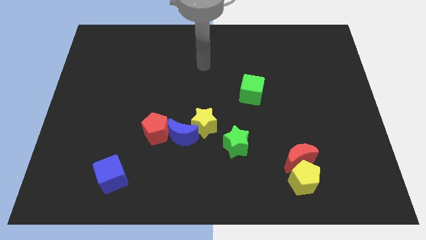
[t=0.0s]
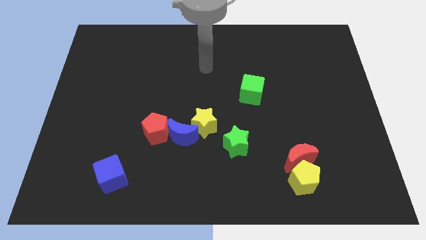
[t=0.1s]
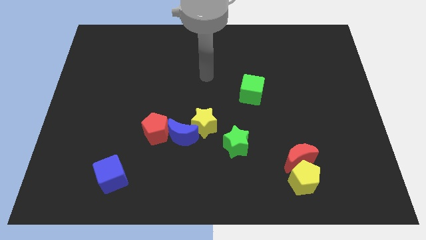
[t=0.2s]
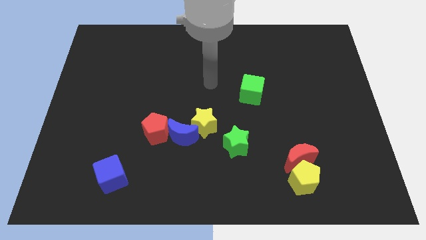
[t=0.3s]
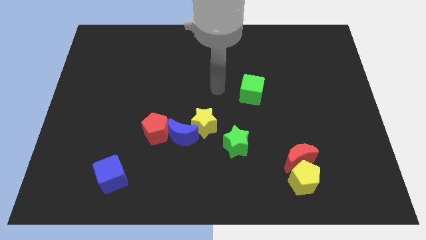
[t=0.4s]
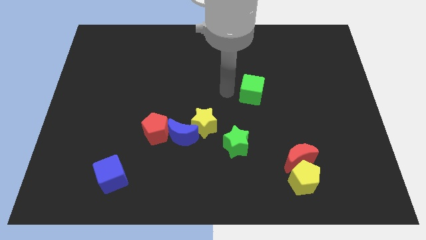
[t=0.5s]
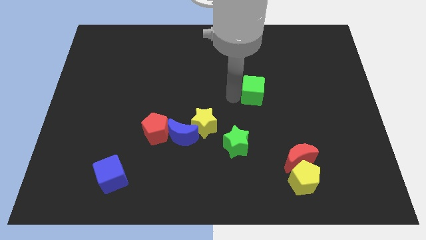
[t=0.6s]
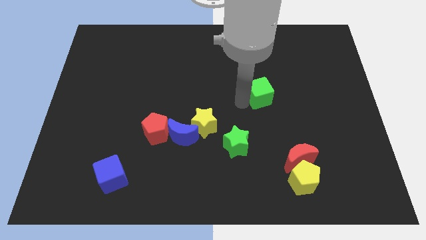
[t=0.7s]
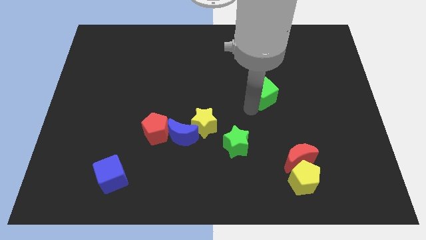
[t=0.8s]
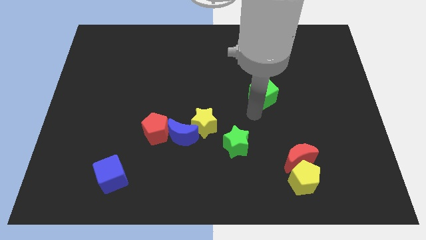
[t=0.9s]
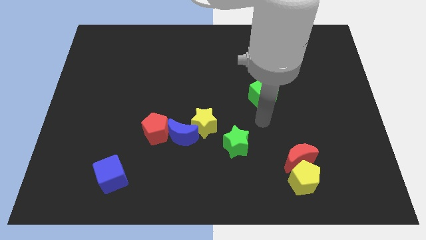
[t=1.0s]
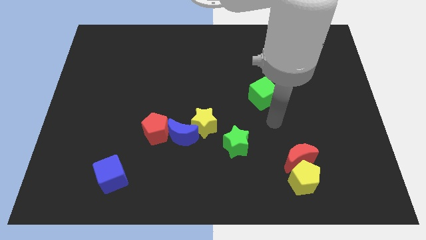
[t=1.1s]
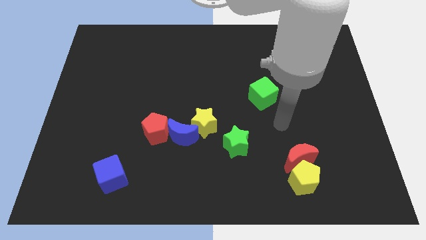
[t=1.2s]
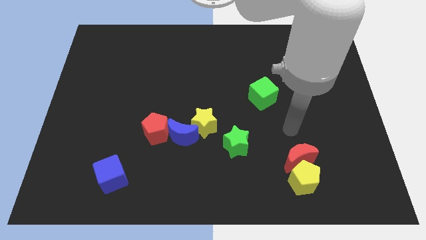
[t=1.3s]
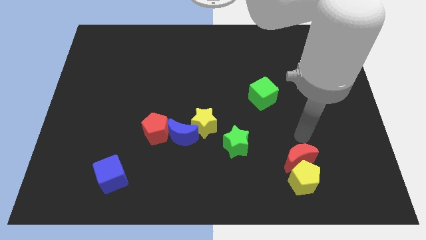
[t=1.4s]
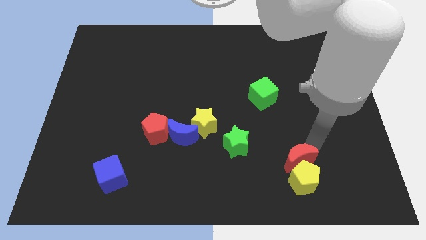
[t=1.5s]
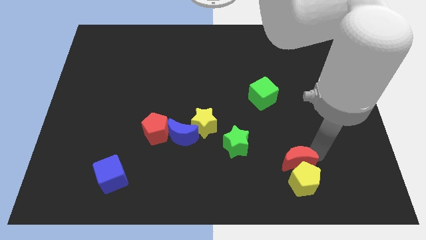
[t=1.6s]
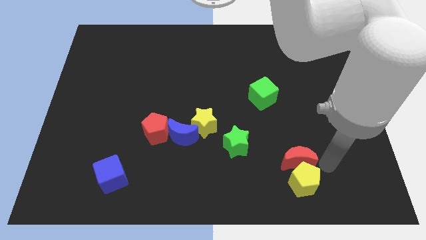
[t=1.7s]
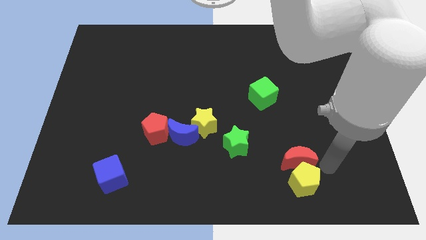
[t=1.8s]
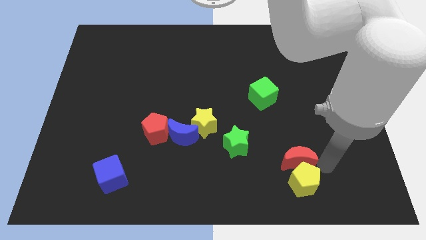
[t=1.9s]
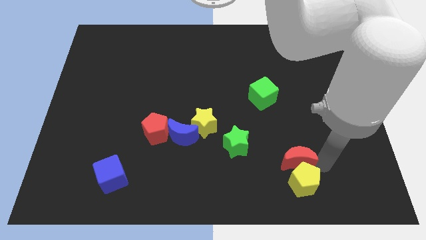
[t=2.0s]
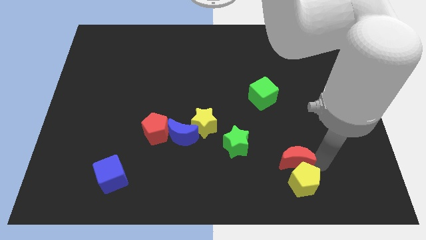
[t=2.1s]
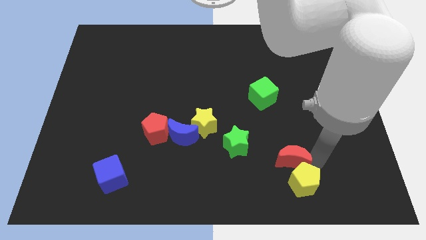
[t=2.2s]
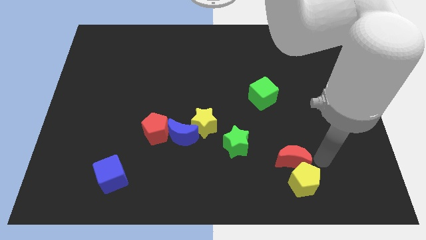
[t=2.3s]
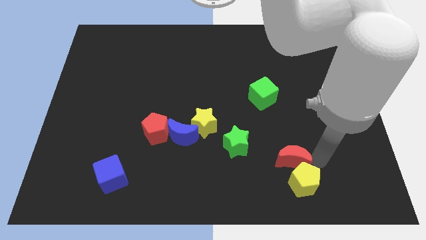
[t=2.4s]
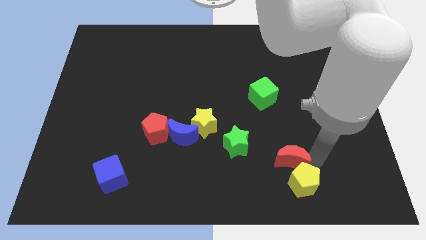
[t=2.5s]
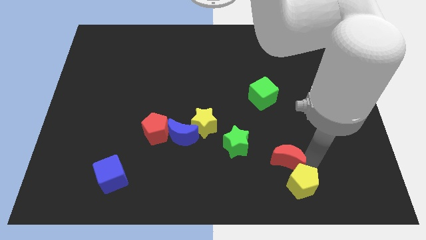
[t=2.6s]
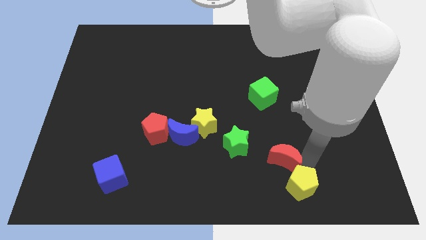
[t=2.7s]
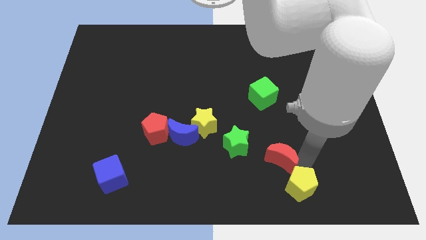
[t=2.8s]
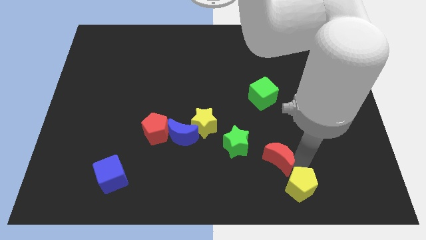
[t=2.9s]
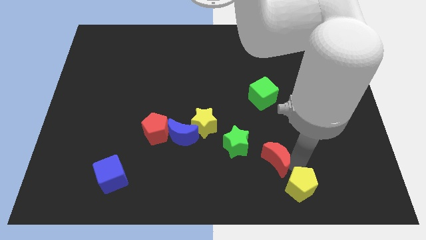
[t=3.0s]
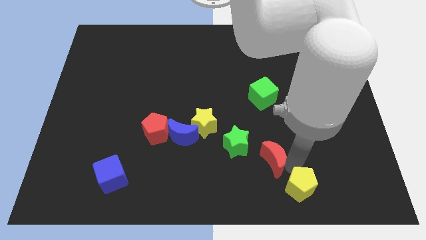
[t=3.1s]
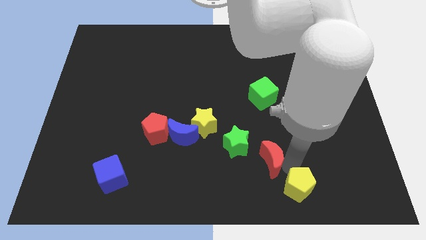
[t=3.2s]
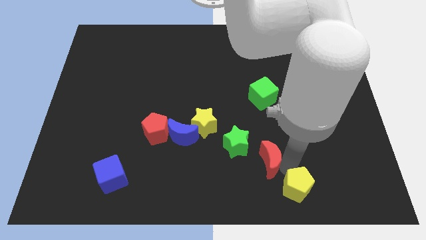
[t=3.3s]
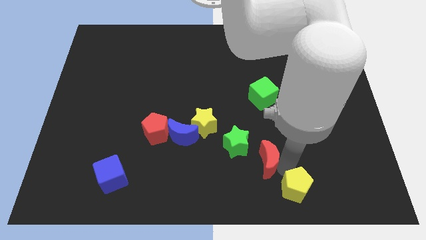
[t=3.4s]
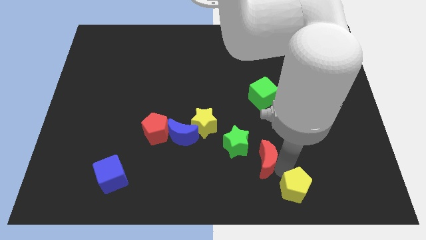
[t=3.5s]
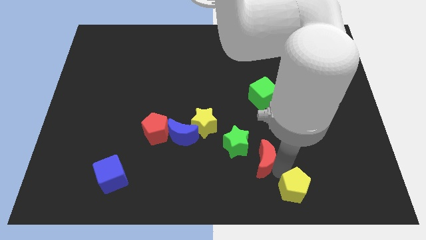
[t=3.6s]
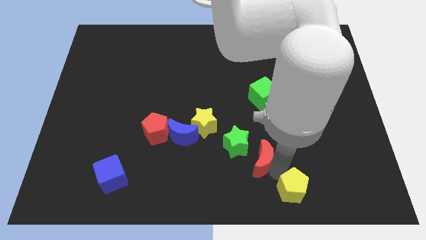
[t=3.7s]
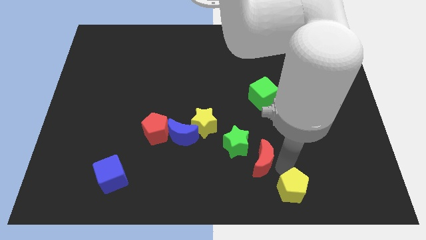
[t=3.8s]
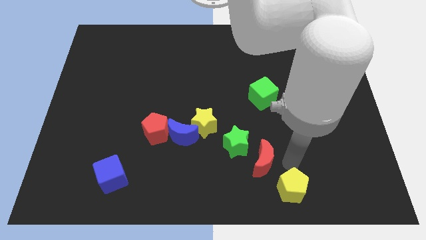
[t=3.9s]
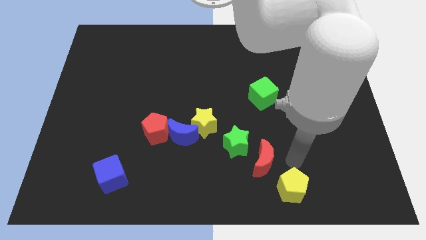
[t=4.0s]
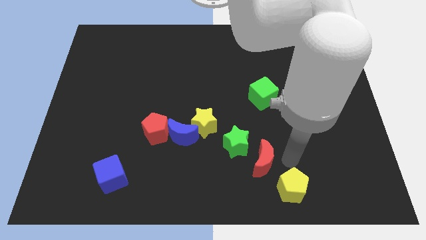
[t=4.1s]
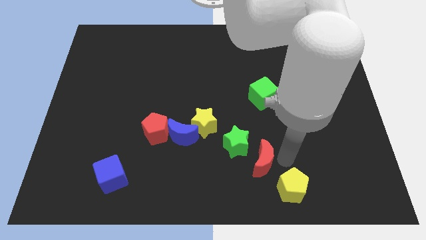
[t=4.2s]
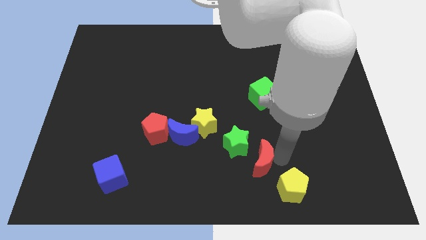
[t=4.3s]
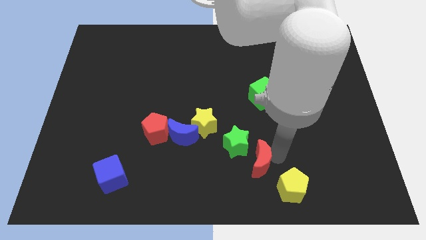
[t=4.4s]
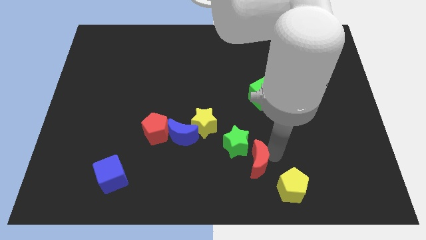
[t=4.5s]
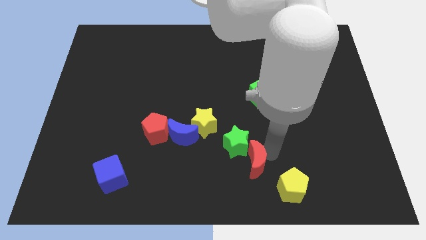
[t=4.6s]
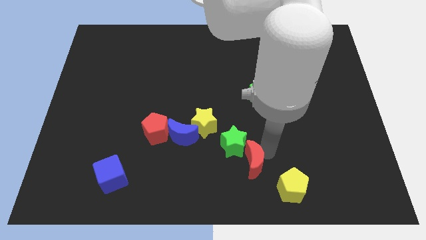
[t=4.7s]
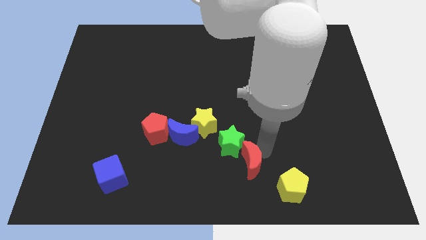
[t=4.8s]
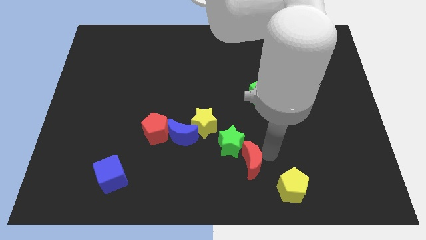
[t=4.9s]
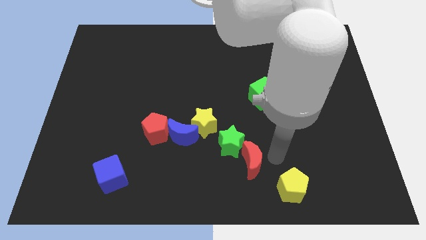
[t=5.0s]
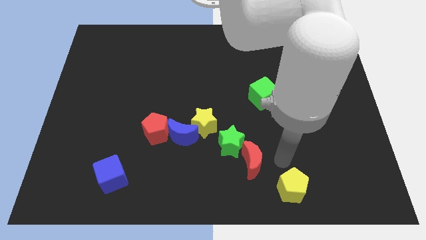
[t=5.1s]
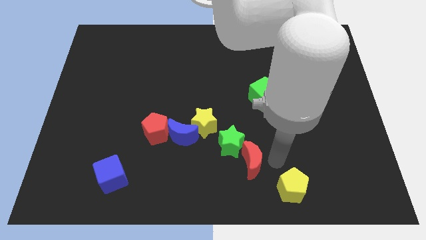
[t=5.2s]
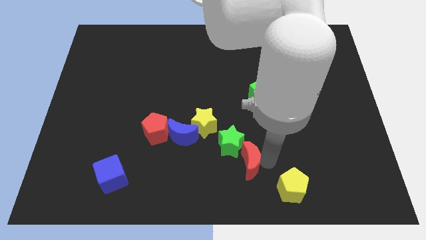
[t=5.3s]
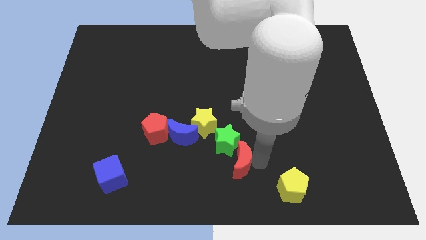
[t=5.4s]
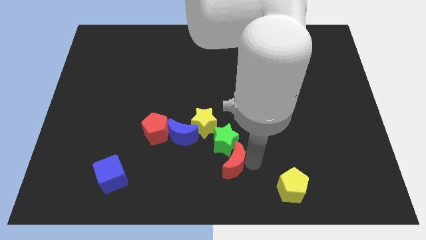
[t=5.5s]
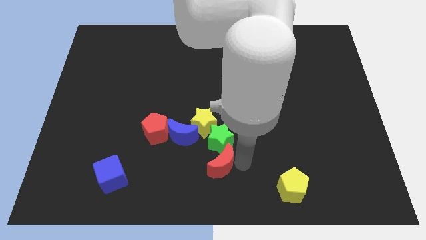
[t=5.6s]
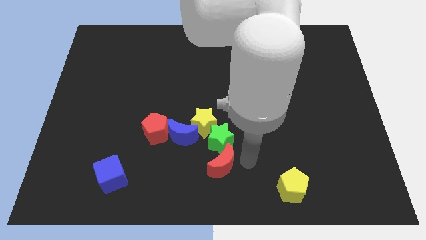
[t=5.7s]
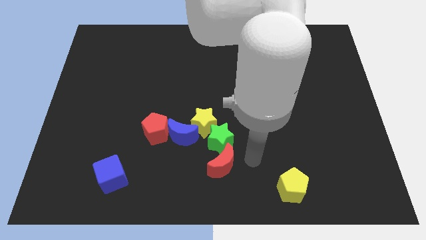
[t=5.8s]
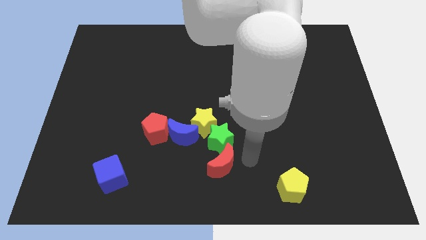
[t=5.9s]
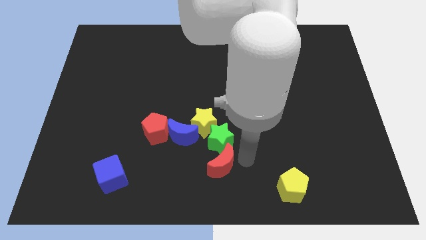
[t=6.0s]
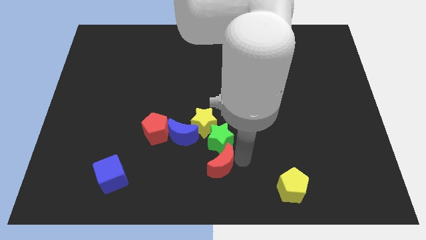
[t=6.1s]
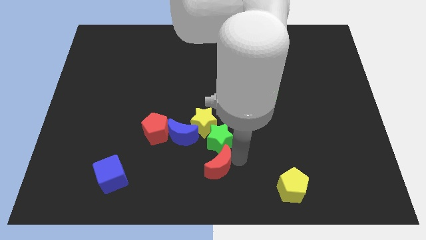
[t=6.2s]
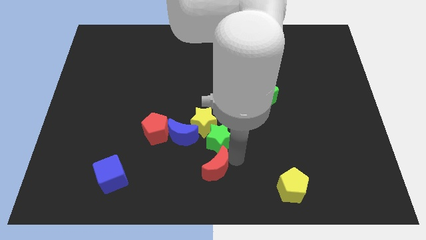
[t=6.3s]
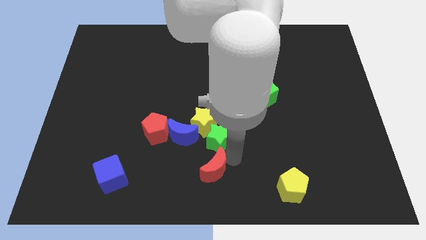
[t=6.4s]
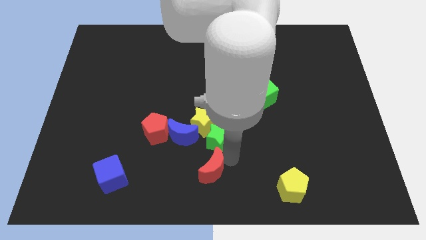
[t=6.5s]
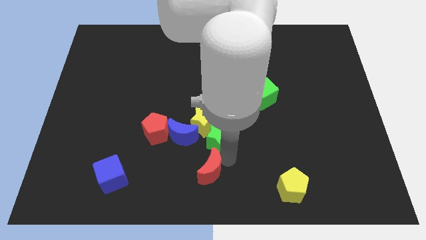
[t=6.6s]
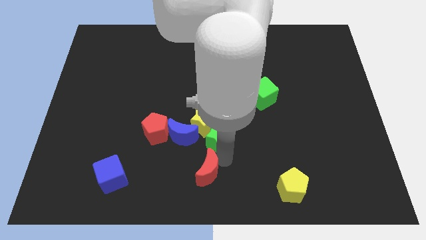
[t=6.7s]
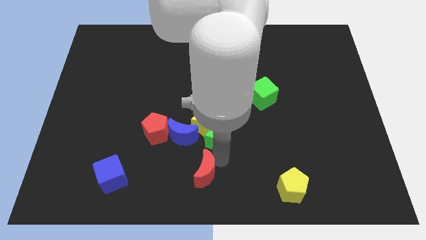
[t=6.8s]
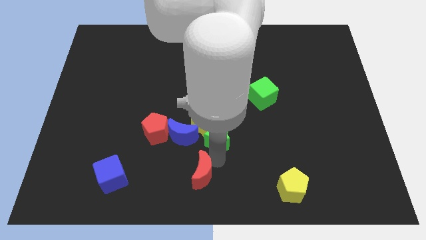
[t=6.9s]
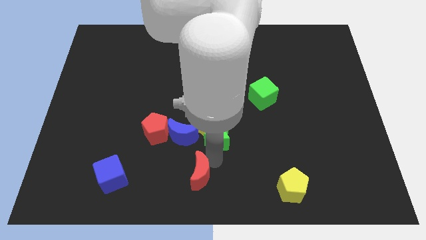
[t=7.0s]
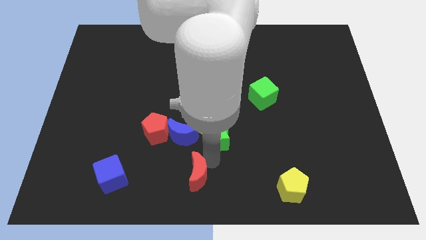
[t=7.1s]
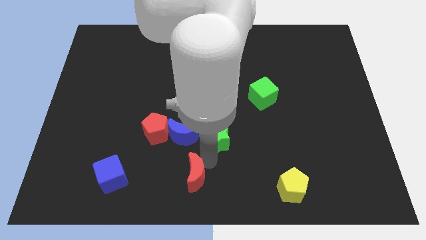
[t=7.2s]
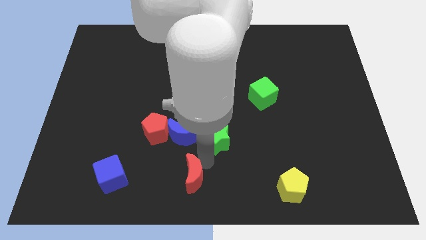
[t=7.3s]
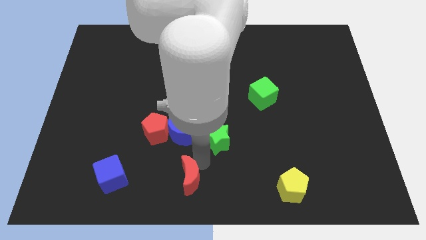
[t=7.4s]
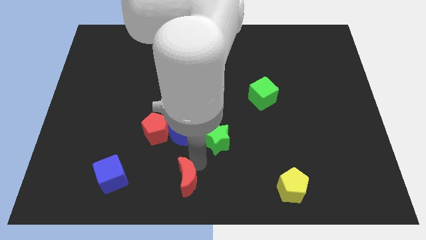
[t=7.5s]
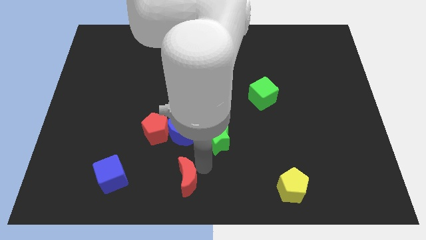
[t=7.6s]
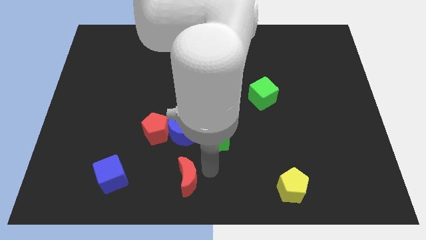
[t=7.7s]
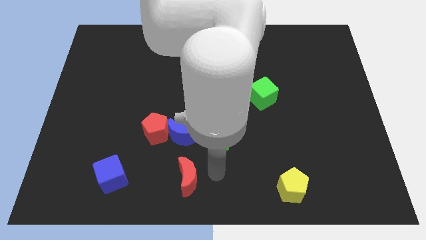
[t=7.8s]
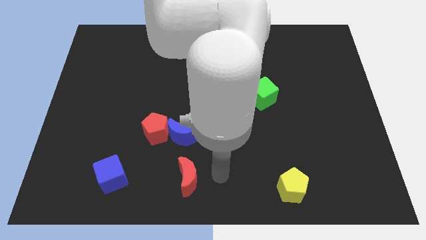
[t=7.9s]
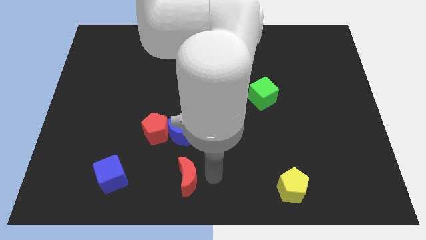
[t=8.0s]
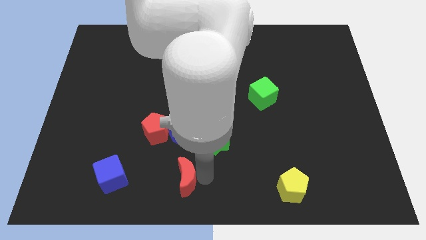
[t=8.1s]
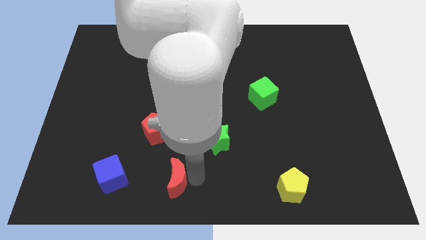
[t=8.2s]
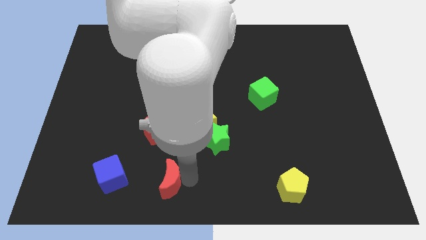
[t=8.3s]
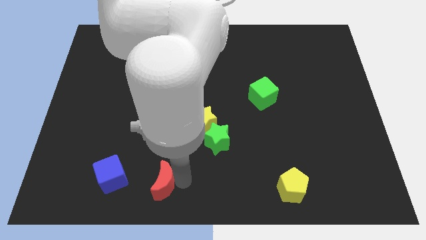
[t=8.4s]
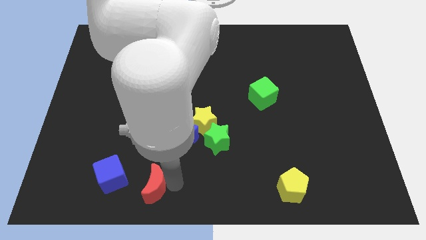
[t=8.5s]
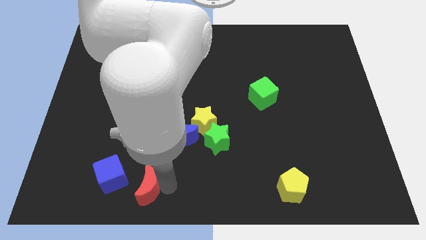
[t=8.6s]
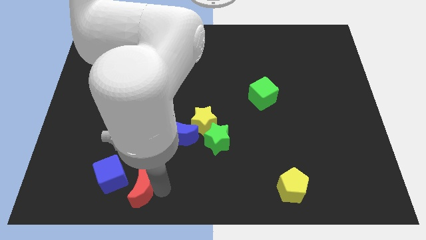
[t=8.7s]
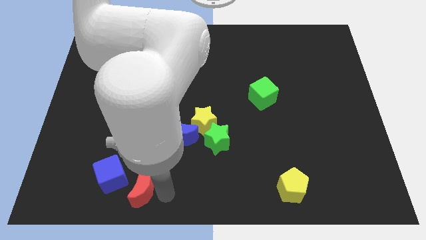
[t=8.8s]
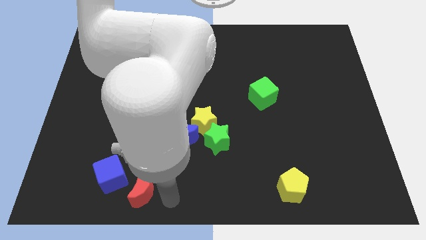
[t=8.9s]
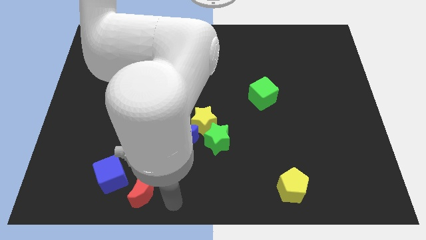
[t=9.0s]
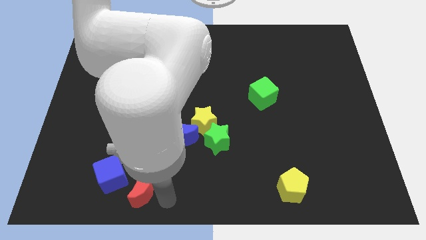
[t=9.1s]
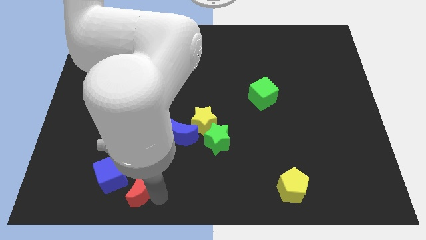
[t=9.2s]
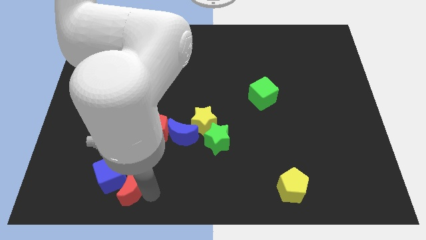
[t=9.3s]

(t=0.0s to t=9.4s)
move the red moon towards the blue cube
